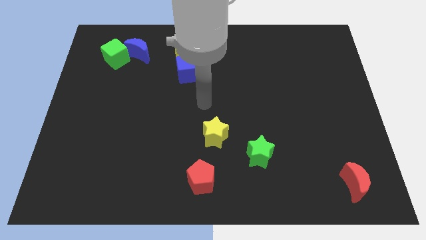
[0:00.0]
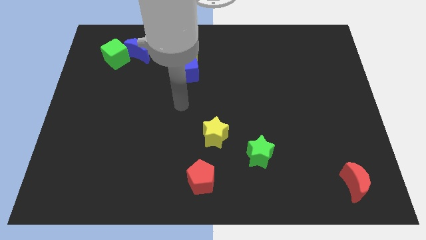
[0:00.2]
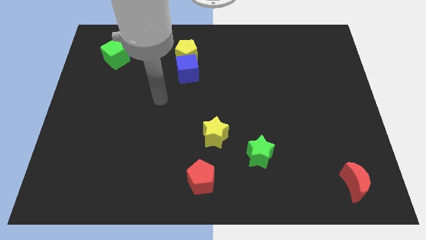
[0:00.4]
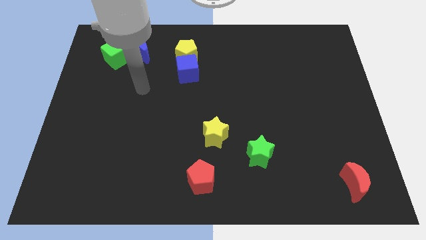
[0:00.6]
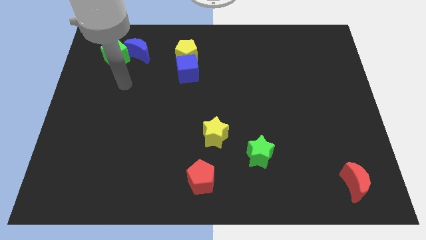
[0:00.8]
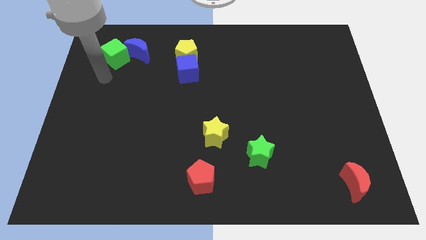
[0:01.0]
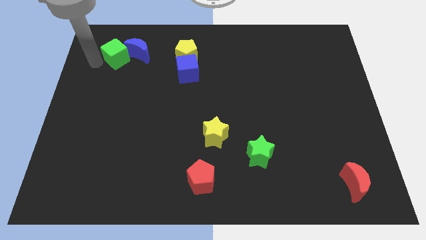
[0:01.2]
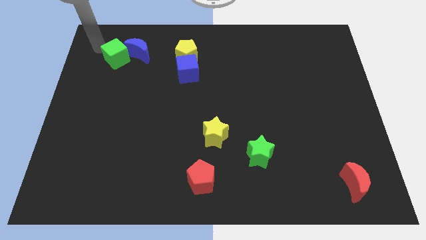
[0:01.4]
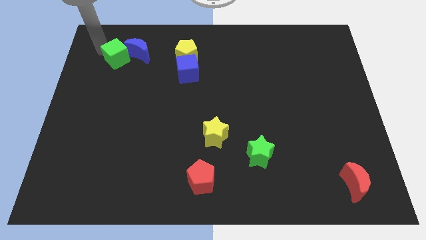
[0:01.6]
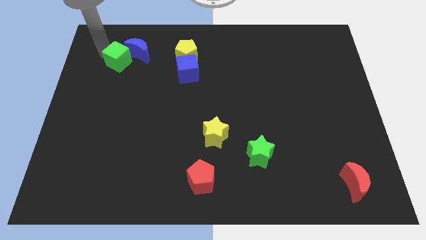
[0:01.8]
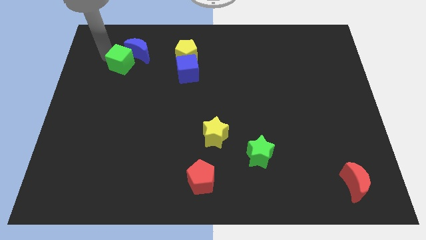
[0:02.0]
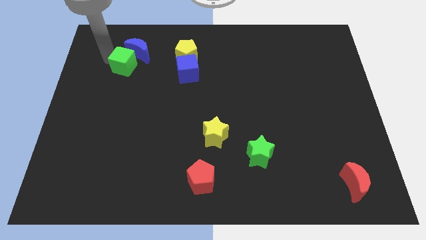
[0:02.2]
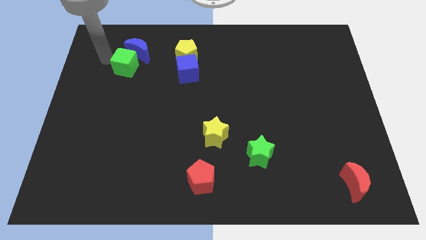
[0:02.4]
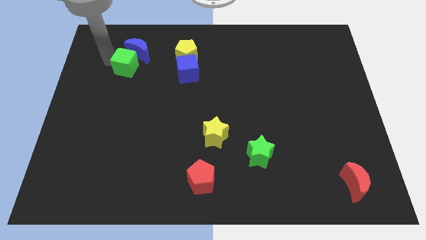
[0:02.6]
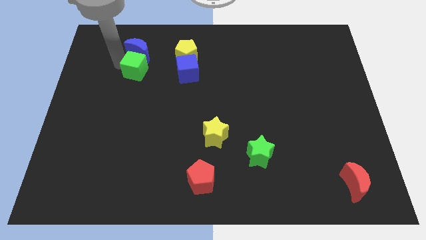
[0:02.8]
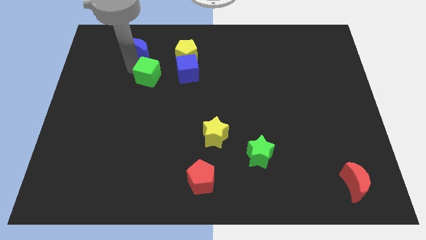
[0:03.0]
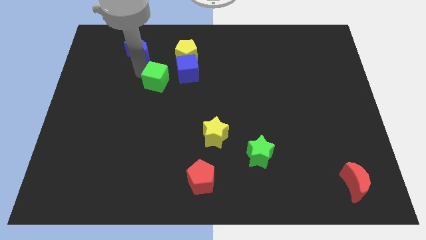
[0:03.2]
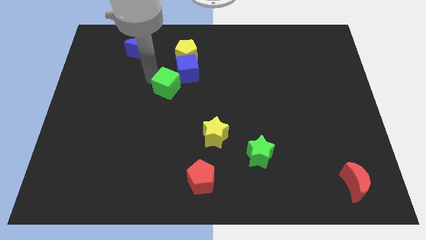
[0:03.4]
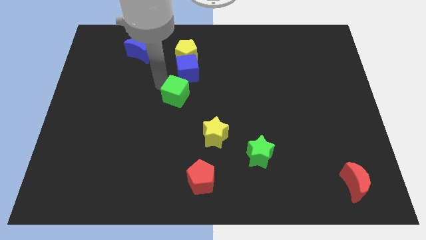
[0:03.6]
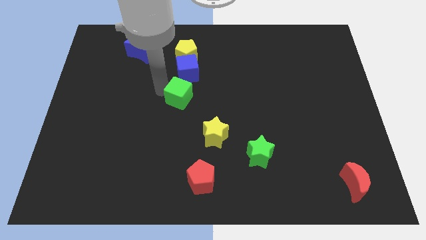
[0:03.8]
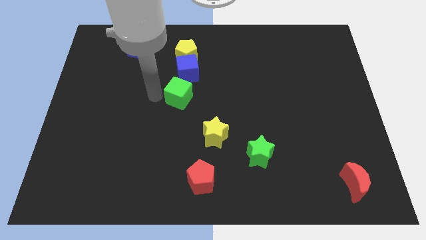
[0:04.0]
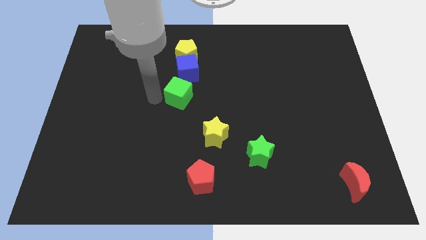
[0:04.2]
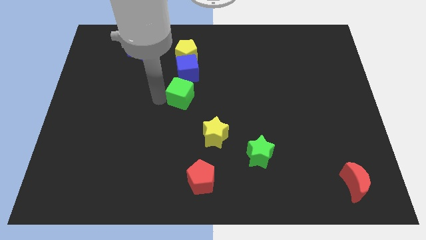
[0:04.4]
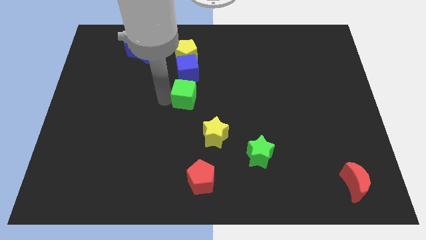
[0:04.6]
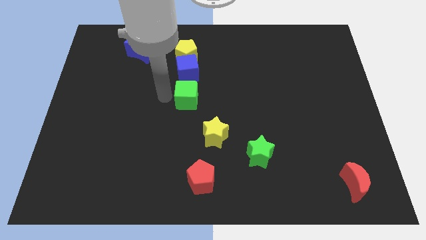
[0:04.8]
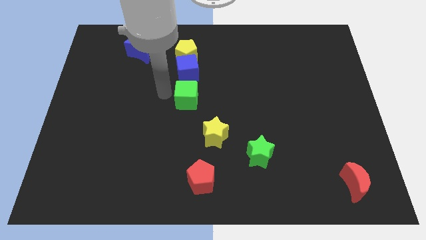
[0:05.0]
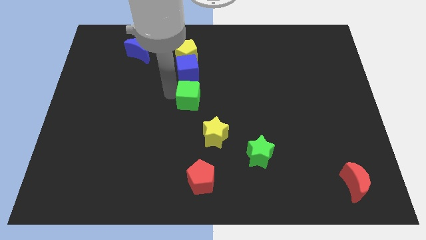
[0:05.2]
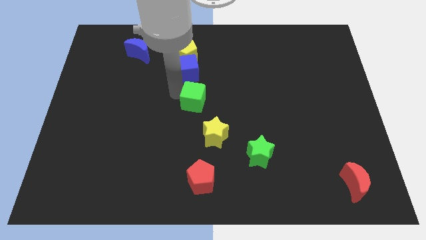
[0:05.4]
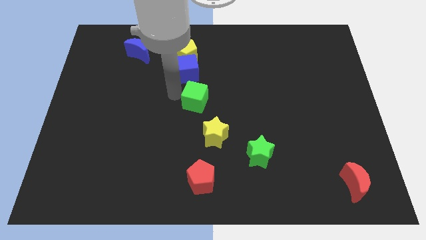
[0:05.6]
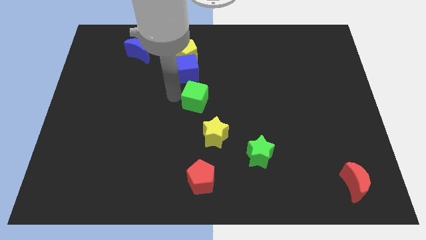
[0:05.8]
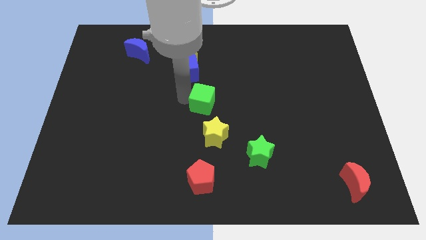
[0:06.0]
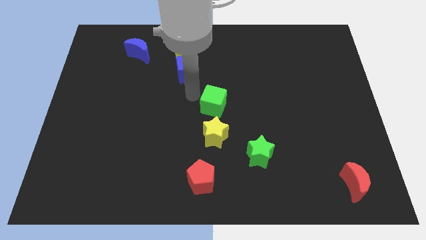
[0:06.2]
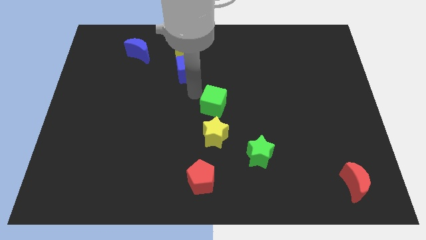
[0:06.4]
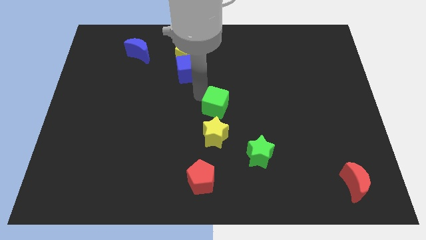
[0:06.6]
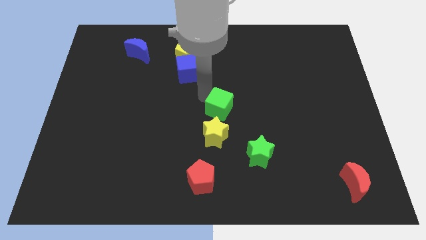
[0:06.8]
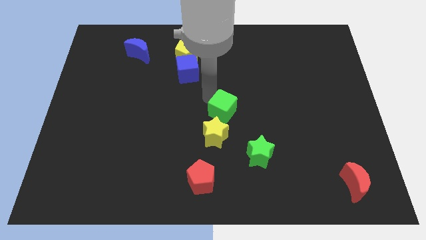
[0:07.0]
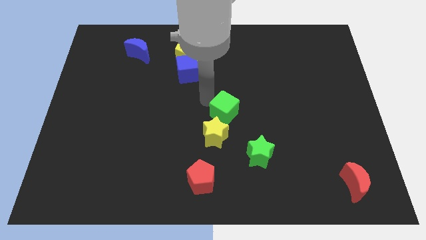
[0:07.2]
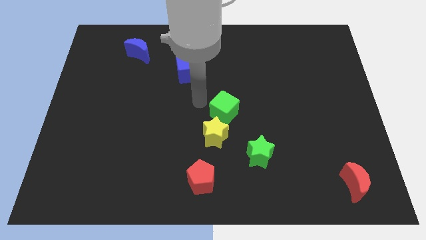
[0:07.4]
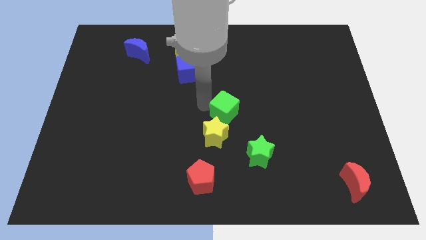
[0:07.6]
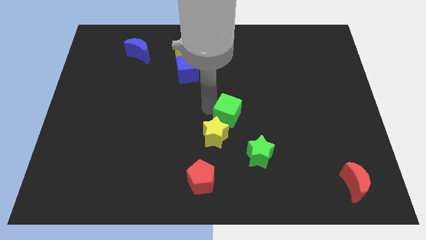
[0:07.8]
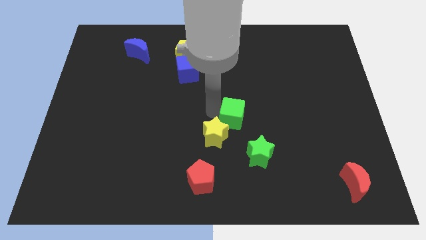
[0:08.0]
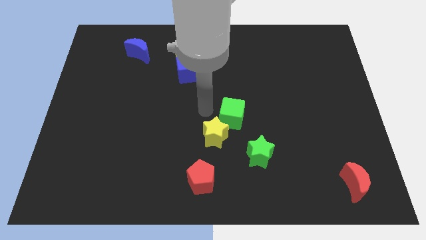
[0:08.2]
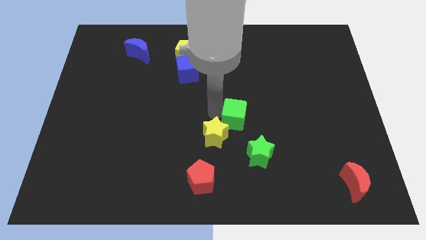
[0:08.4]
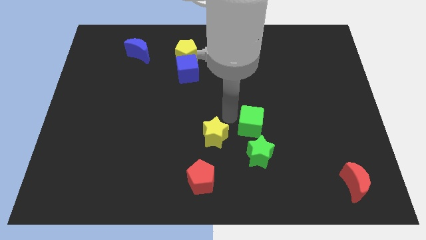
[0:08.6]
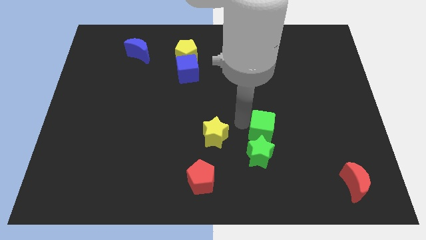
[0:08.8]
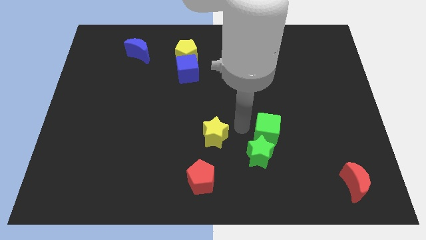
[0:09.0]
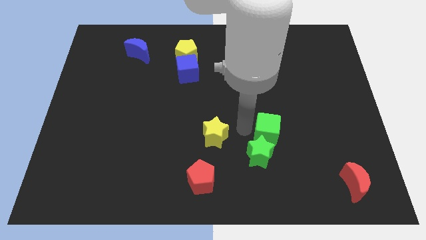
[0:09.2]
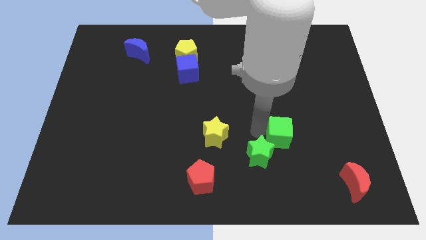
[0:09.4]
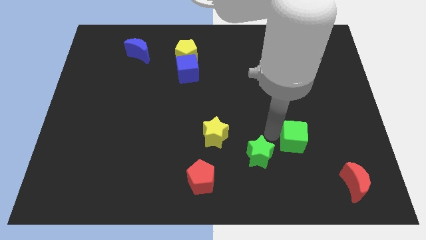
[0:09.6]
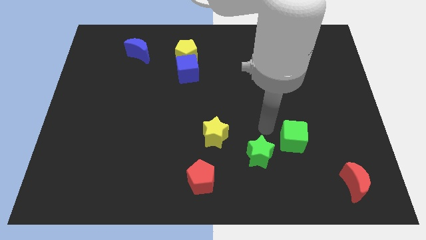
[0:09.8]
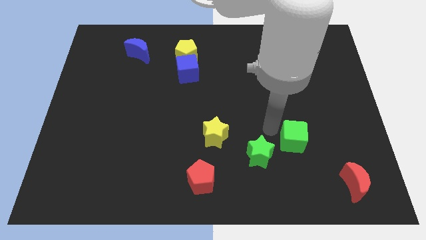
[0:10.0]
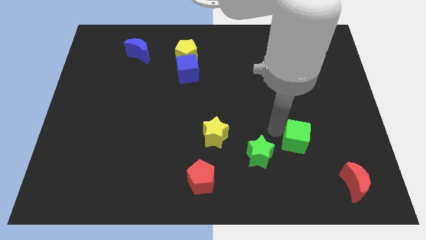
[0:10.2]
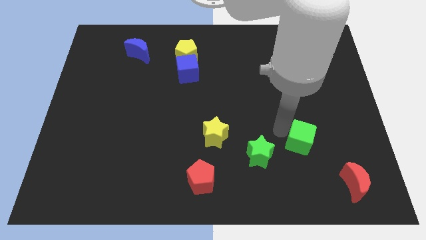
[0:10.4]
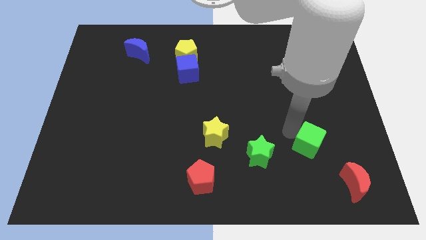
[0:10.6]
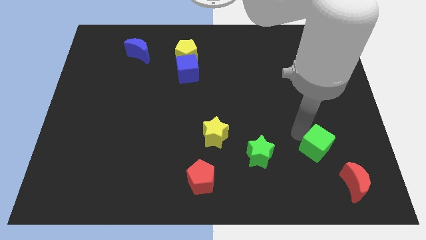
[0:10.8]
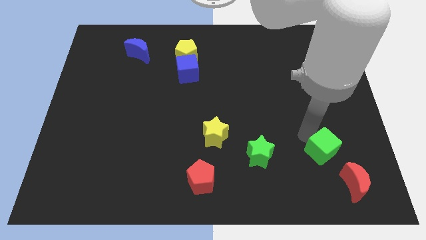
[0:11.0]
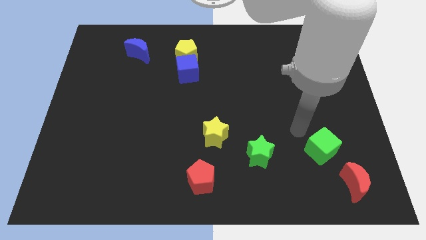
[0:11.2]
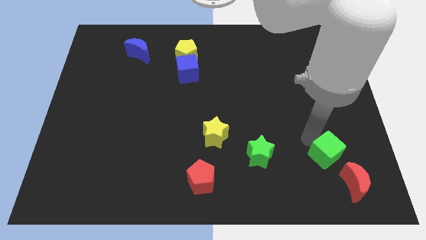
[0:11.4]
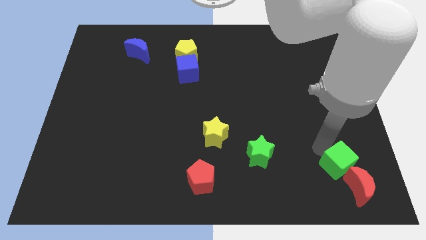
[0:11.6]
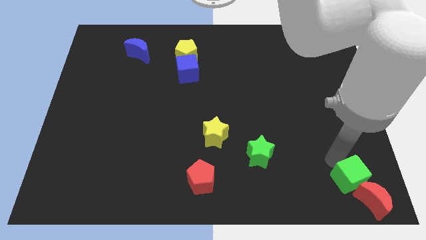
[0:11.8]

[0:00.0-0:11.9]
push the green cube to the red moon

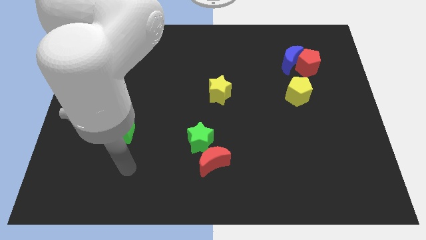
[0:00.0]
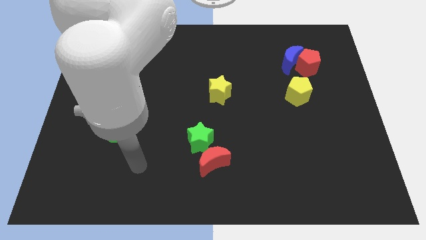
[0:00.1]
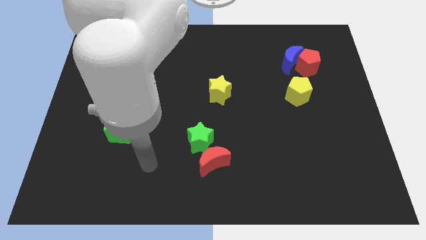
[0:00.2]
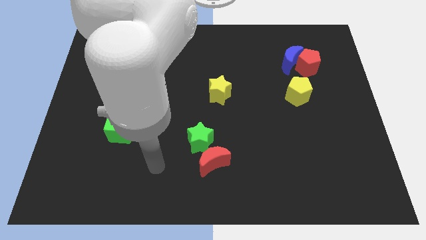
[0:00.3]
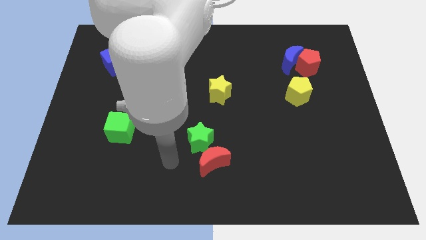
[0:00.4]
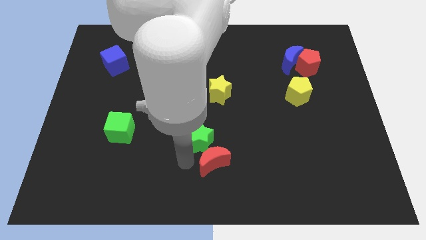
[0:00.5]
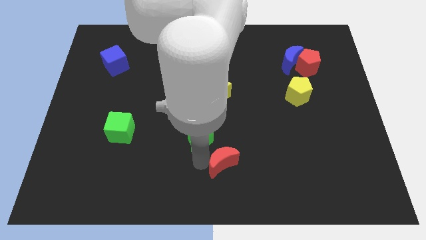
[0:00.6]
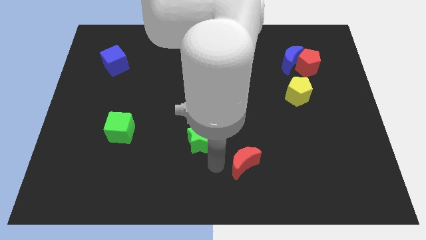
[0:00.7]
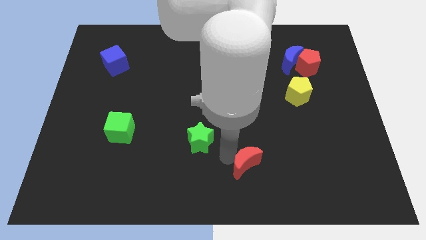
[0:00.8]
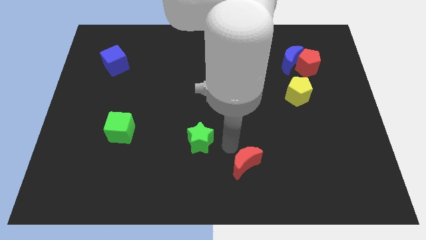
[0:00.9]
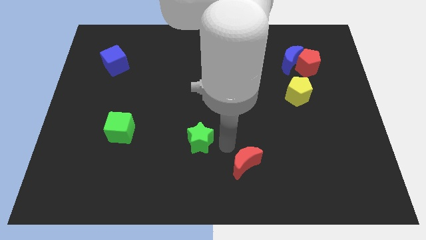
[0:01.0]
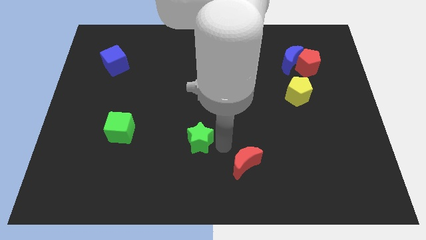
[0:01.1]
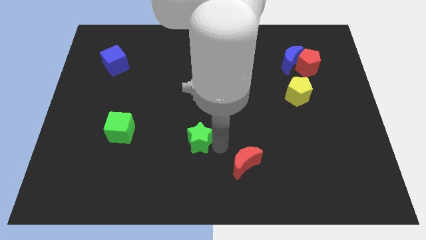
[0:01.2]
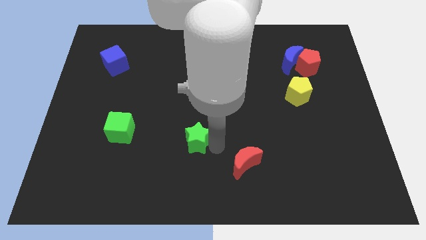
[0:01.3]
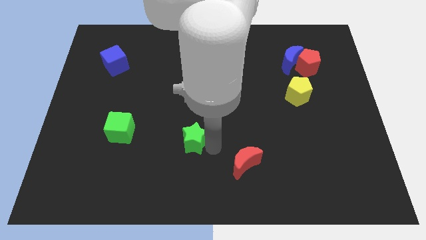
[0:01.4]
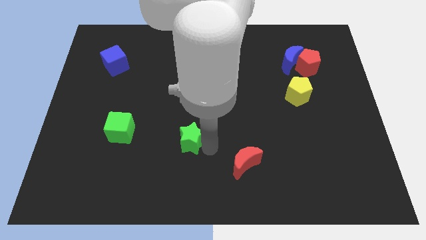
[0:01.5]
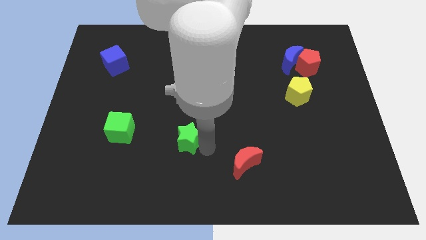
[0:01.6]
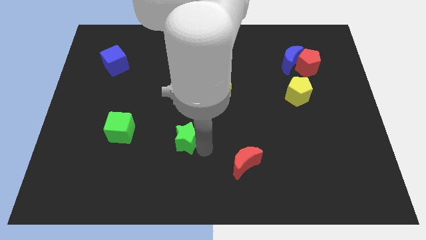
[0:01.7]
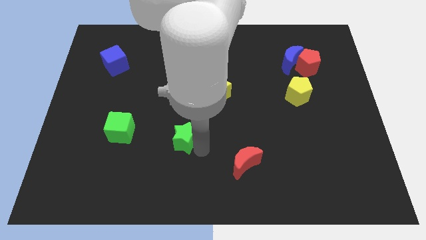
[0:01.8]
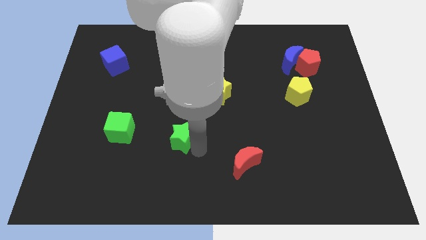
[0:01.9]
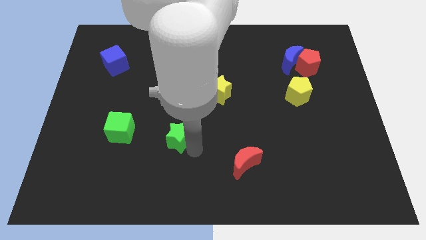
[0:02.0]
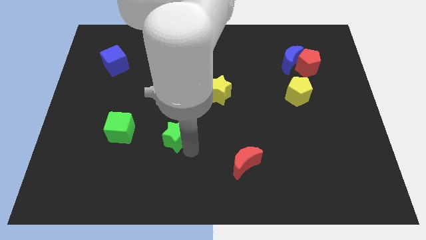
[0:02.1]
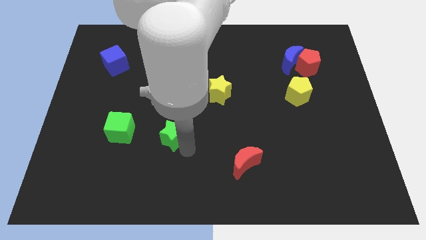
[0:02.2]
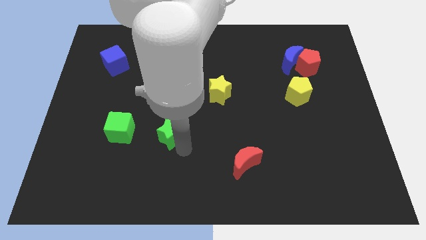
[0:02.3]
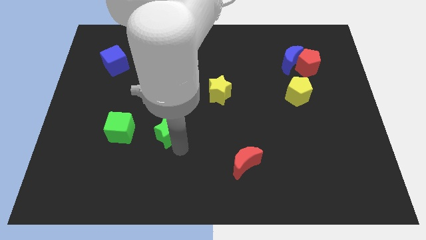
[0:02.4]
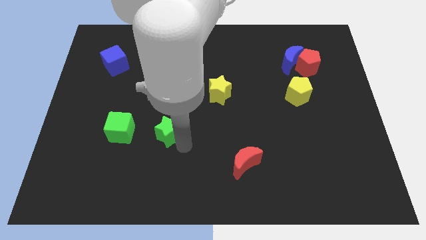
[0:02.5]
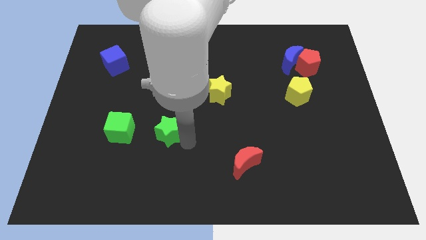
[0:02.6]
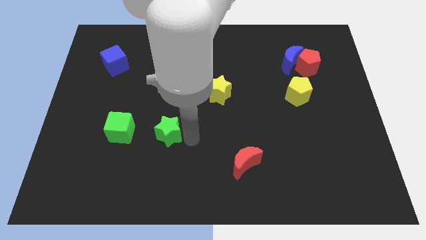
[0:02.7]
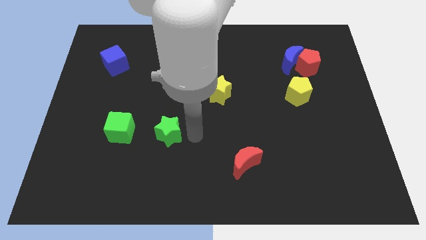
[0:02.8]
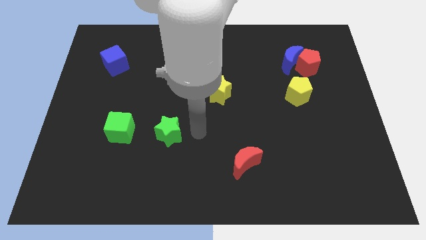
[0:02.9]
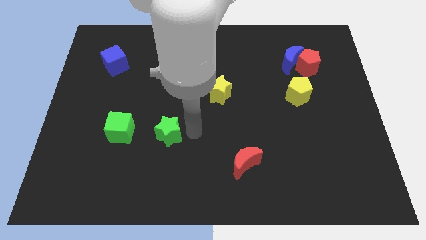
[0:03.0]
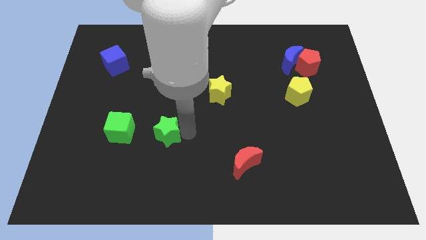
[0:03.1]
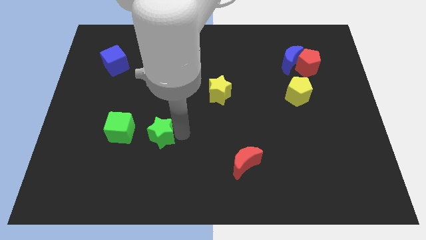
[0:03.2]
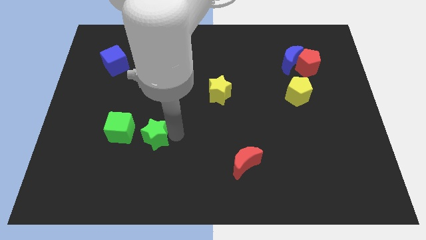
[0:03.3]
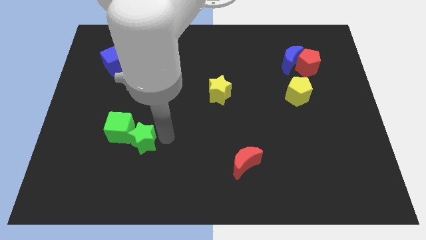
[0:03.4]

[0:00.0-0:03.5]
put the green star close to the green cube
